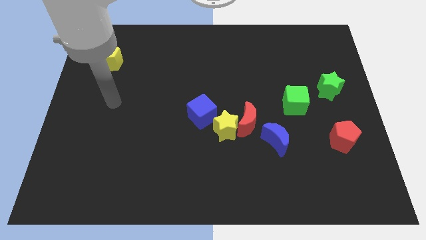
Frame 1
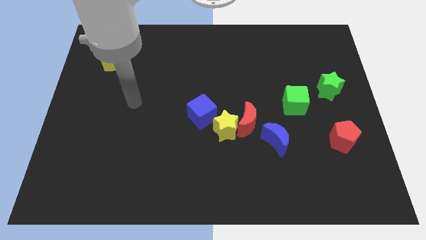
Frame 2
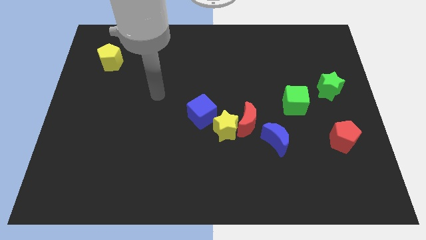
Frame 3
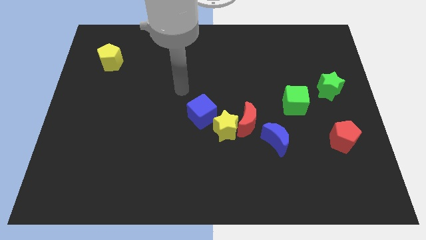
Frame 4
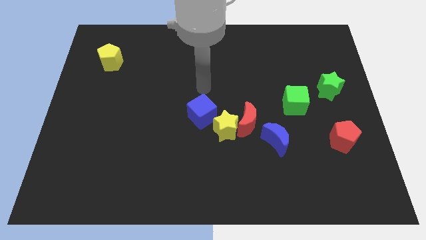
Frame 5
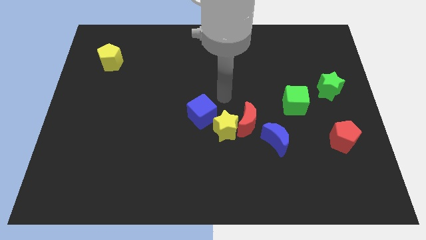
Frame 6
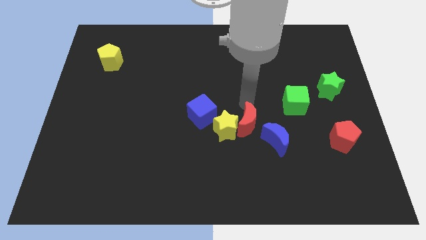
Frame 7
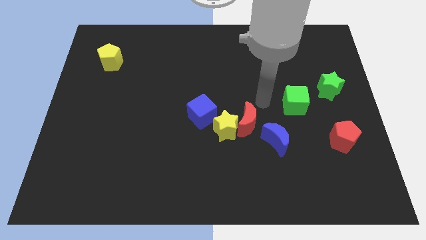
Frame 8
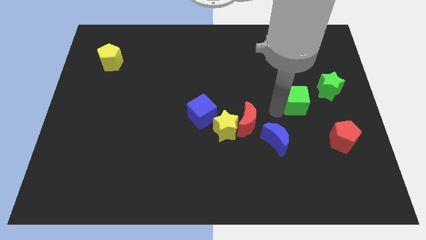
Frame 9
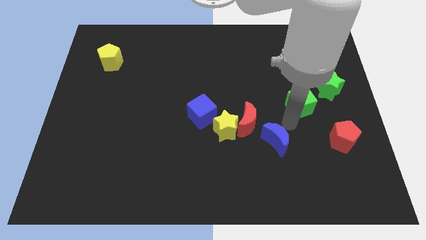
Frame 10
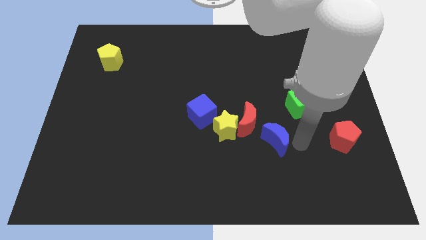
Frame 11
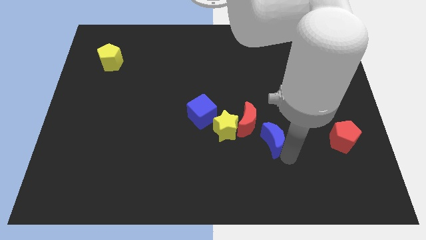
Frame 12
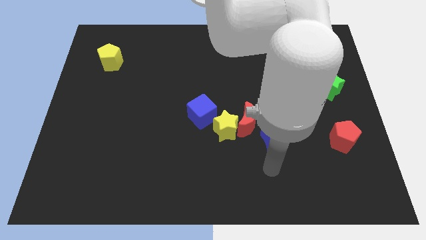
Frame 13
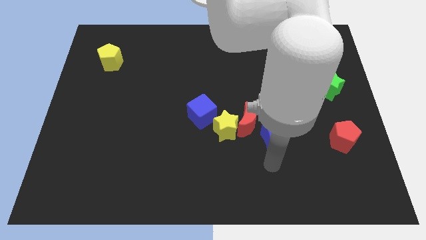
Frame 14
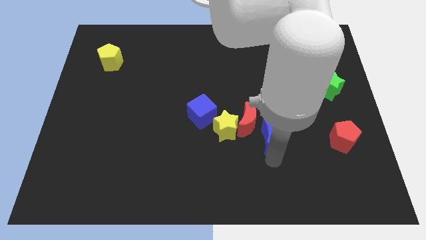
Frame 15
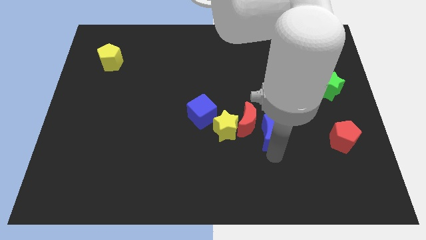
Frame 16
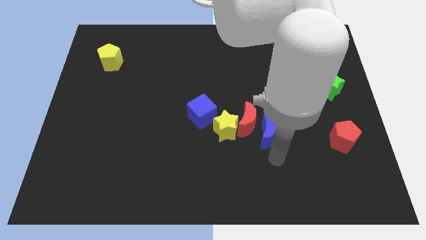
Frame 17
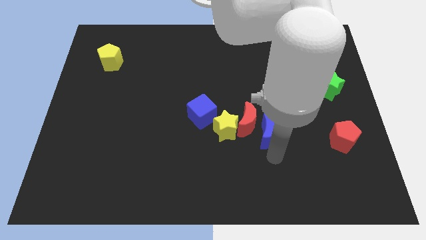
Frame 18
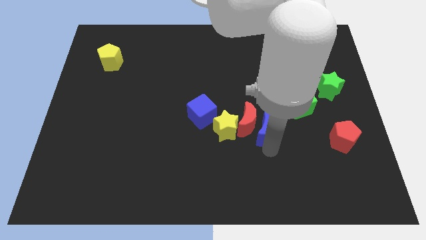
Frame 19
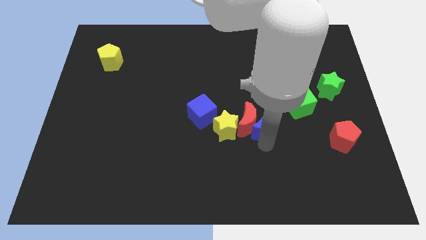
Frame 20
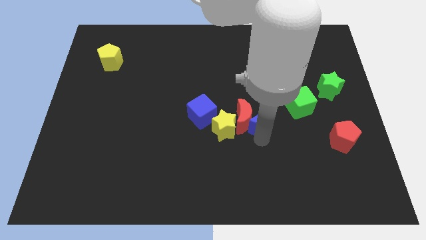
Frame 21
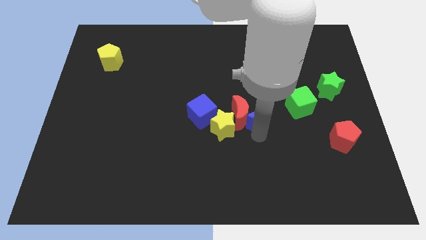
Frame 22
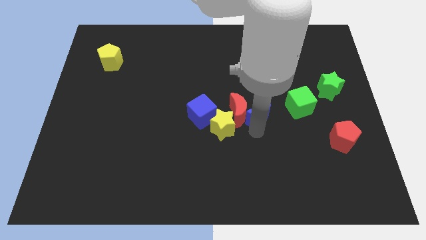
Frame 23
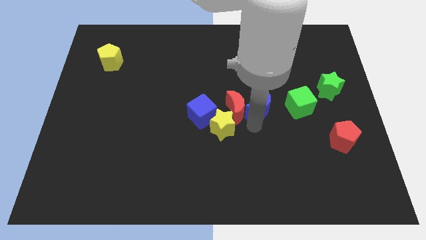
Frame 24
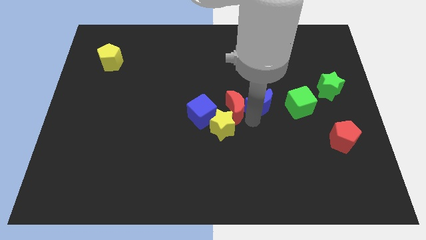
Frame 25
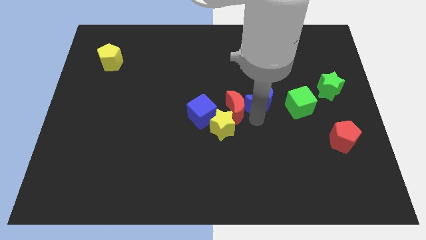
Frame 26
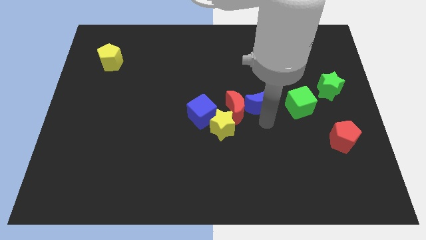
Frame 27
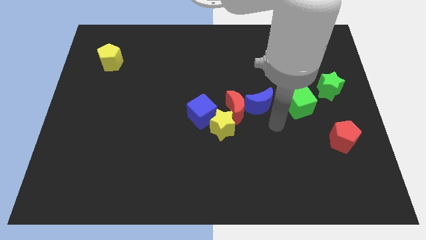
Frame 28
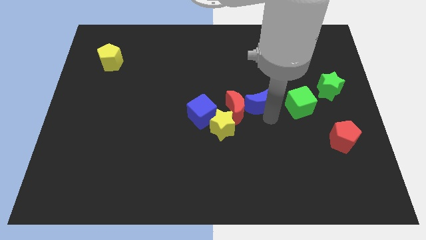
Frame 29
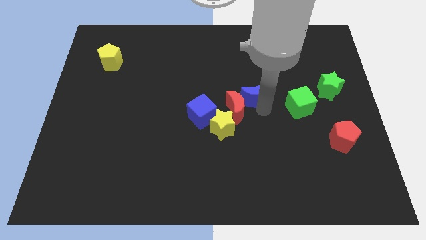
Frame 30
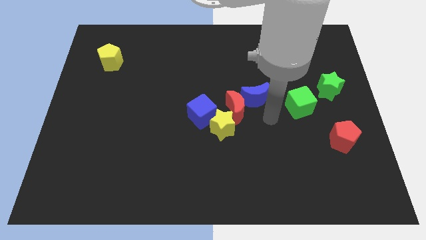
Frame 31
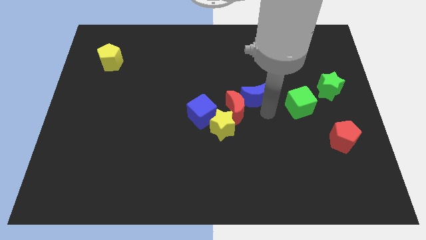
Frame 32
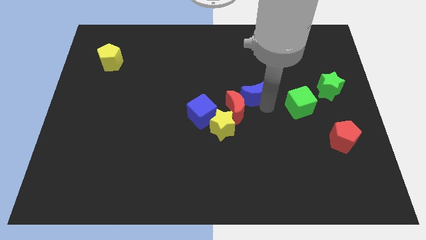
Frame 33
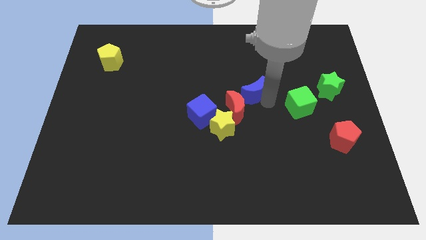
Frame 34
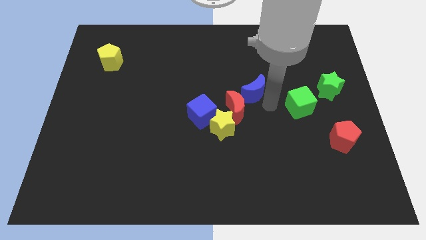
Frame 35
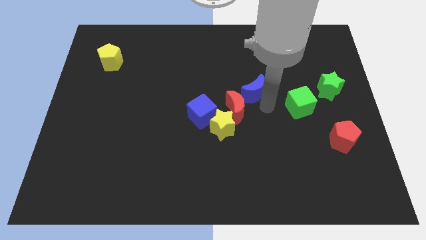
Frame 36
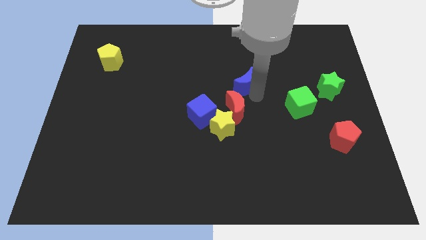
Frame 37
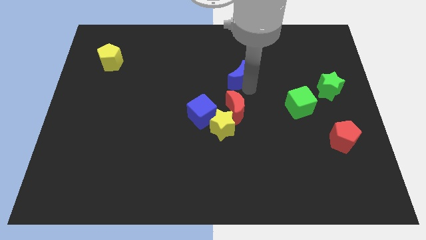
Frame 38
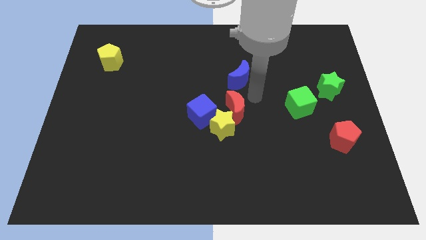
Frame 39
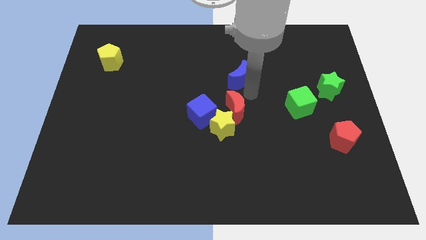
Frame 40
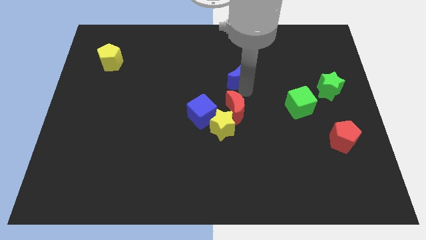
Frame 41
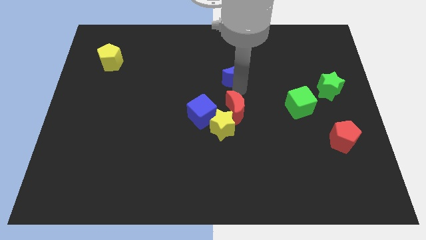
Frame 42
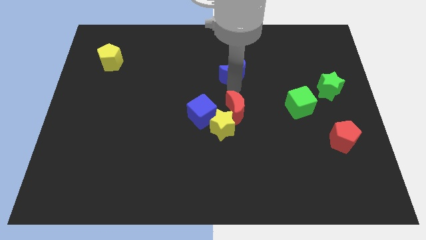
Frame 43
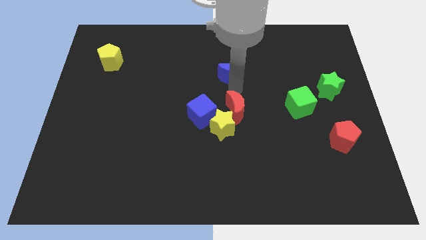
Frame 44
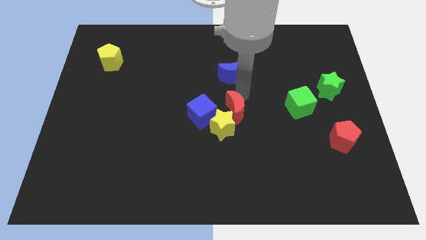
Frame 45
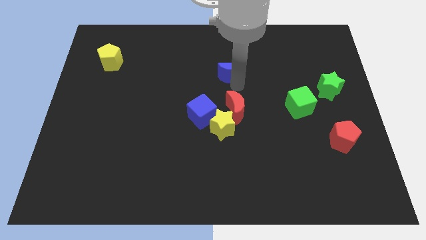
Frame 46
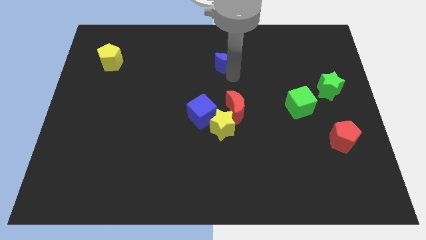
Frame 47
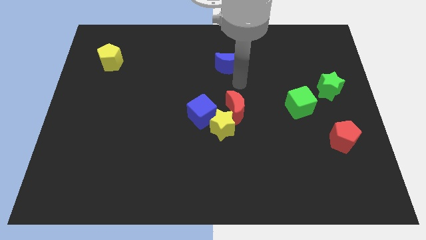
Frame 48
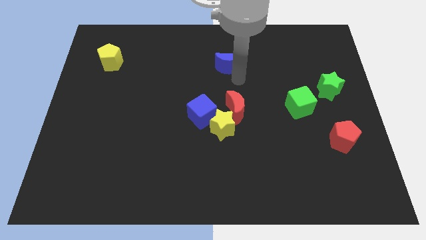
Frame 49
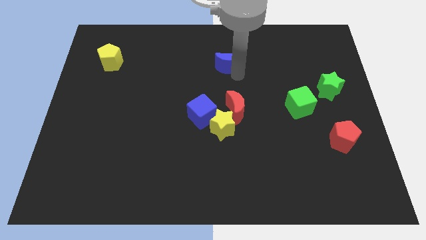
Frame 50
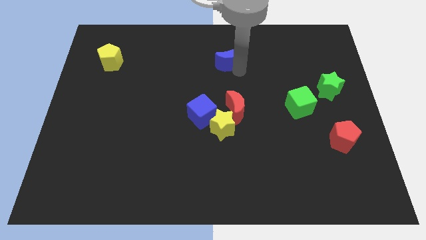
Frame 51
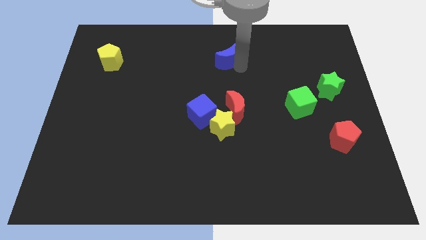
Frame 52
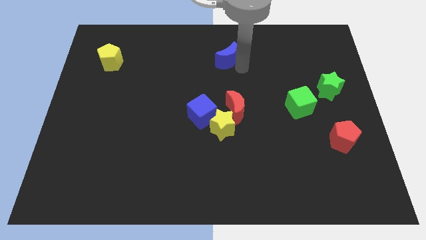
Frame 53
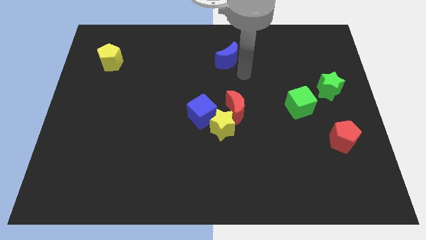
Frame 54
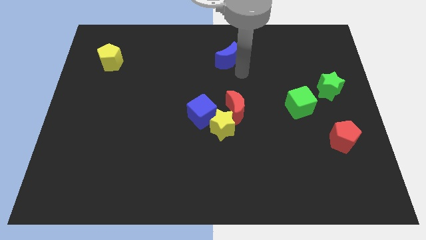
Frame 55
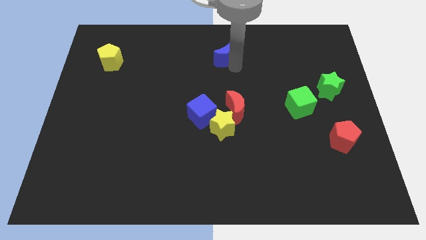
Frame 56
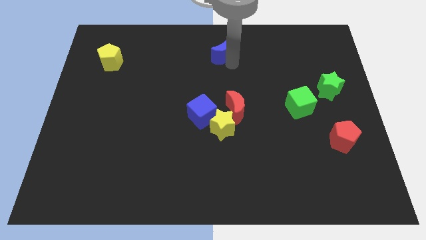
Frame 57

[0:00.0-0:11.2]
push the blue moon to the top side
